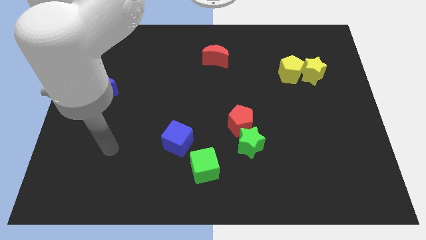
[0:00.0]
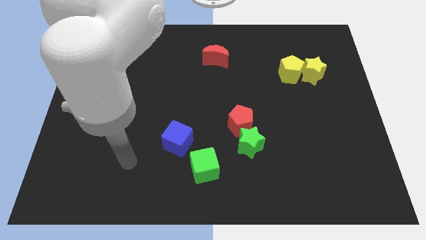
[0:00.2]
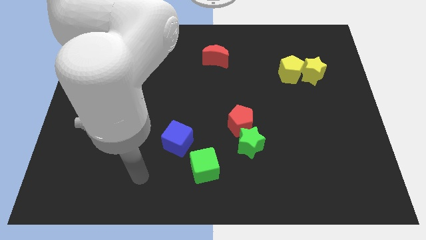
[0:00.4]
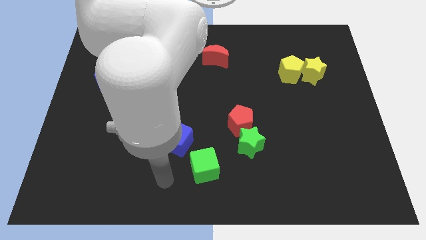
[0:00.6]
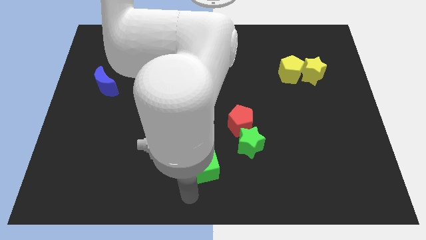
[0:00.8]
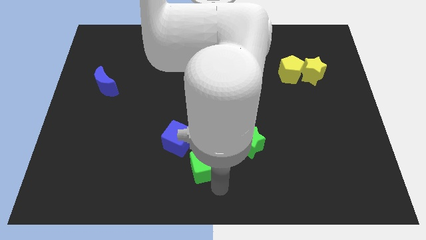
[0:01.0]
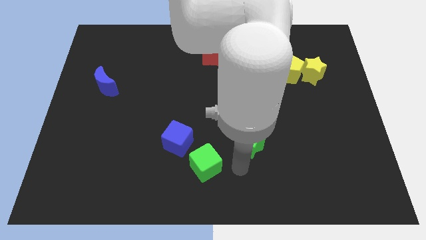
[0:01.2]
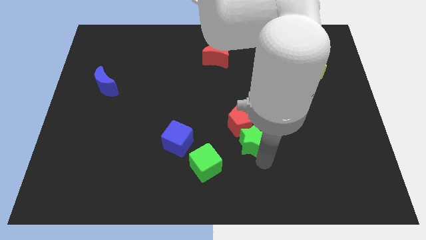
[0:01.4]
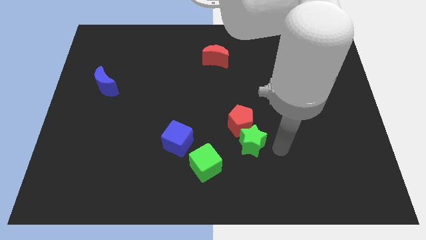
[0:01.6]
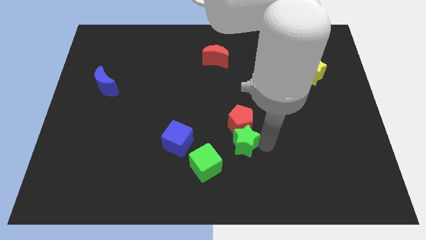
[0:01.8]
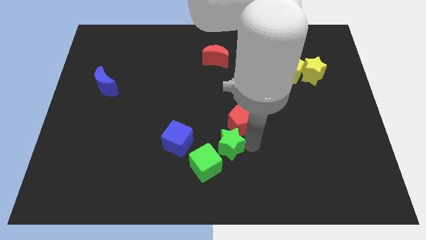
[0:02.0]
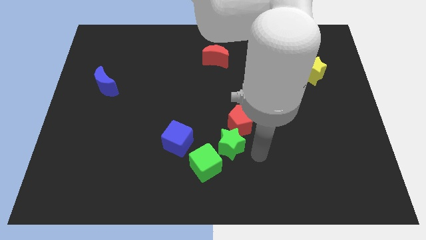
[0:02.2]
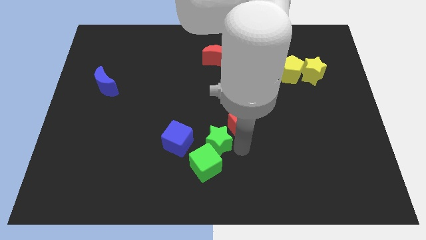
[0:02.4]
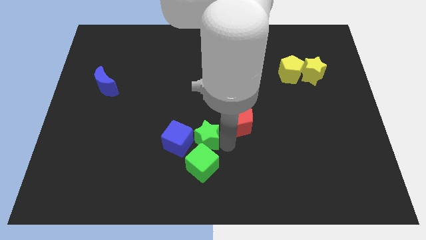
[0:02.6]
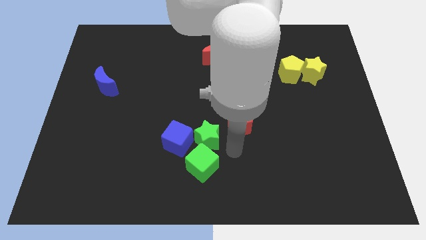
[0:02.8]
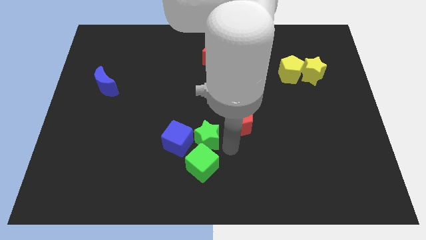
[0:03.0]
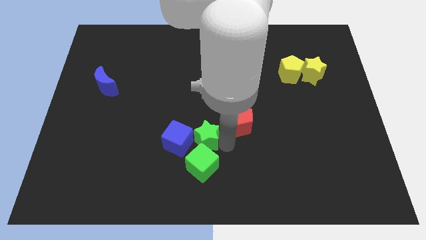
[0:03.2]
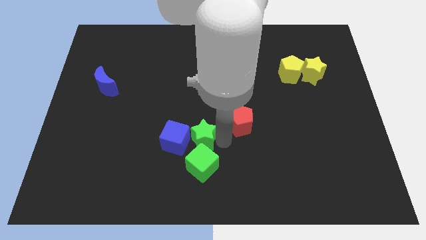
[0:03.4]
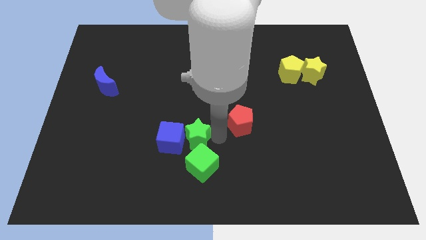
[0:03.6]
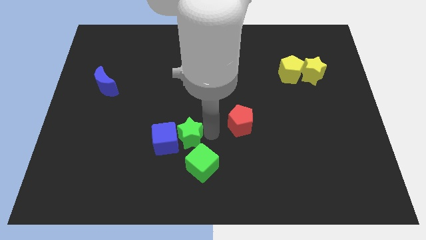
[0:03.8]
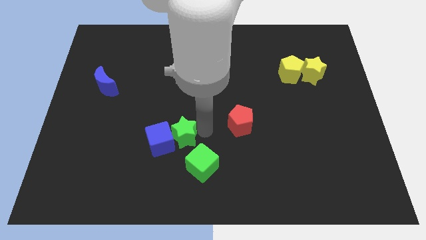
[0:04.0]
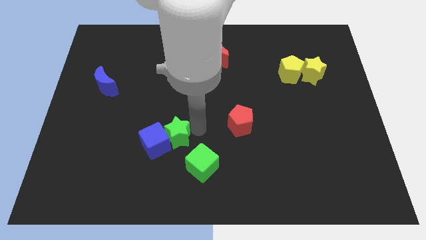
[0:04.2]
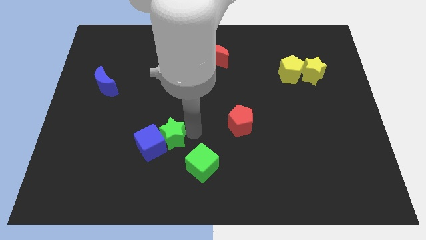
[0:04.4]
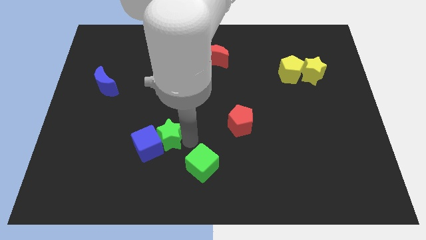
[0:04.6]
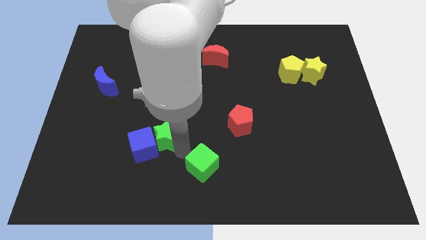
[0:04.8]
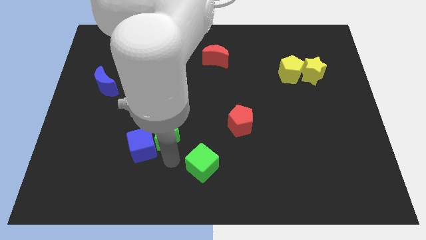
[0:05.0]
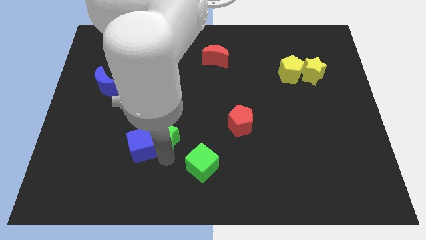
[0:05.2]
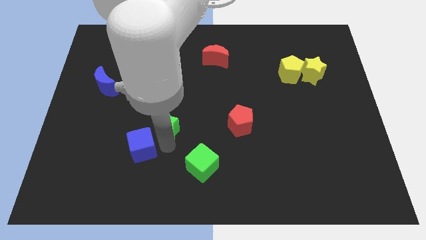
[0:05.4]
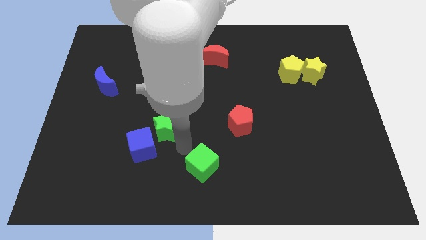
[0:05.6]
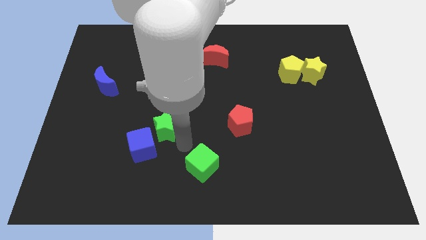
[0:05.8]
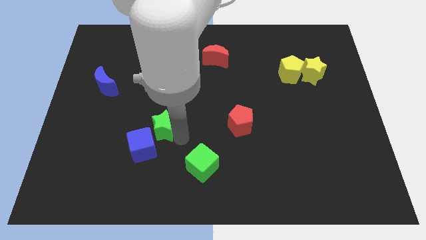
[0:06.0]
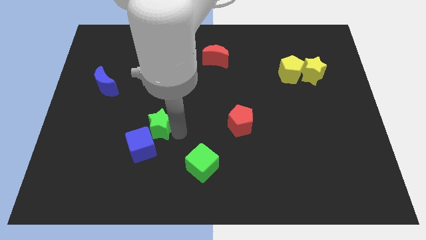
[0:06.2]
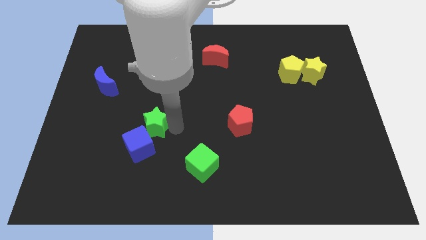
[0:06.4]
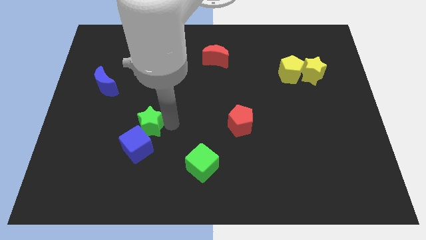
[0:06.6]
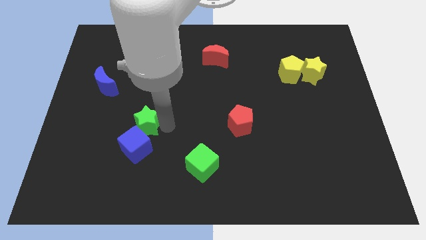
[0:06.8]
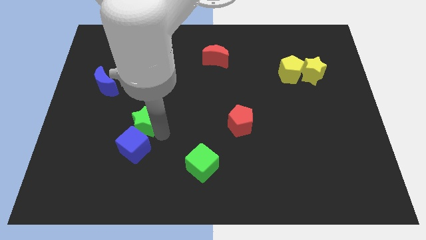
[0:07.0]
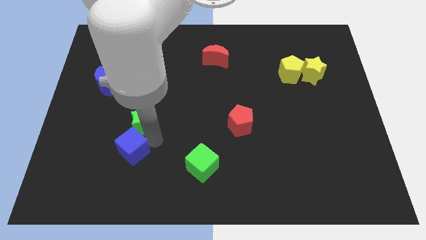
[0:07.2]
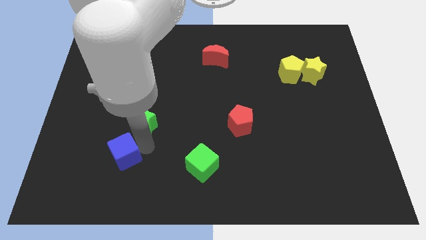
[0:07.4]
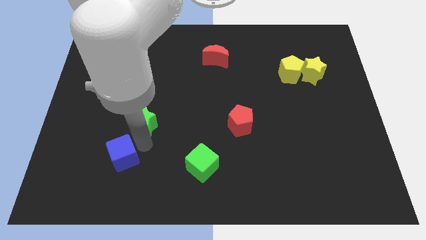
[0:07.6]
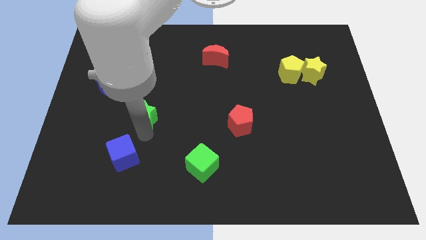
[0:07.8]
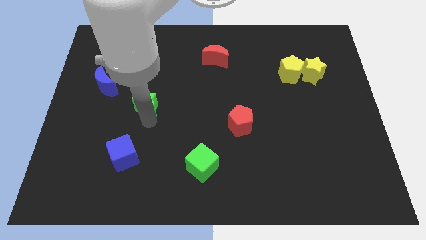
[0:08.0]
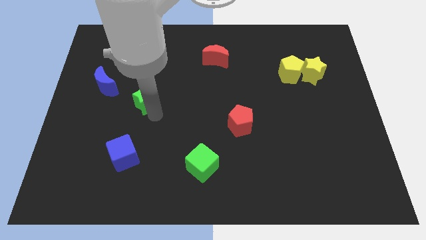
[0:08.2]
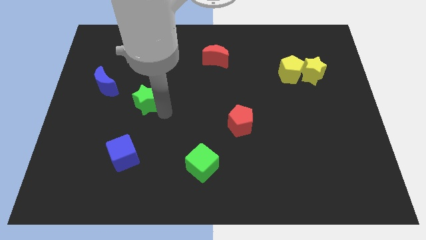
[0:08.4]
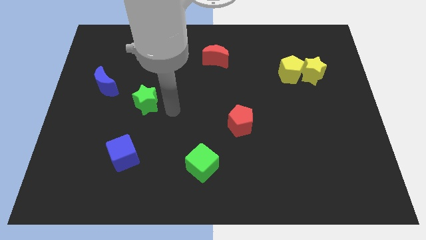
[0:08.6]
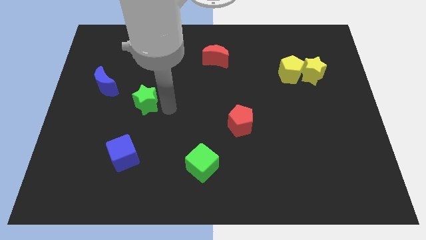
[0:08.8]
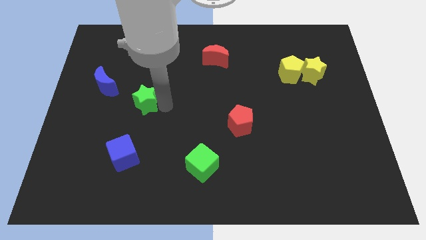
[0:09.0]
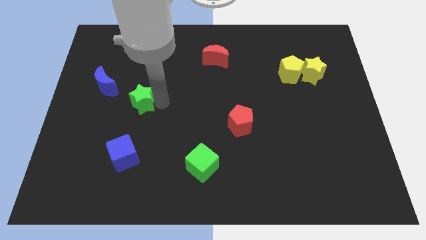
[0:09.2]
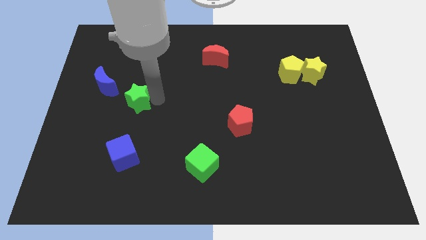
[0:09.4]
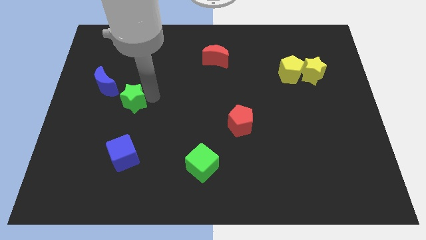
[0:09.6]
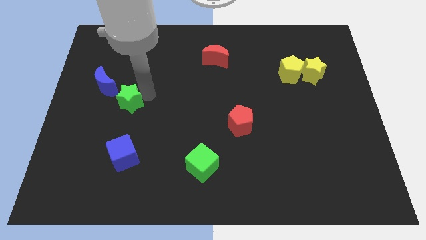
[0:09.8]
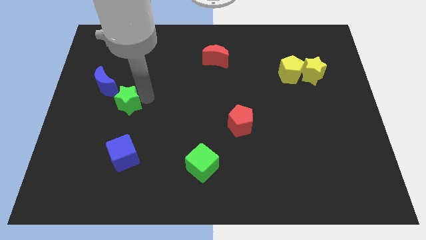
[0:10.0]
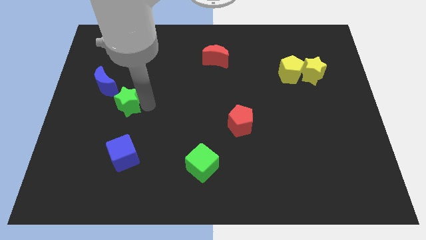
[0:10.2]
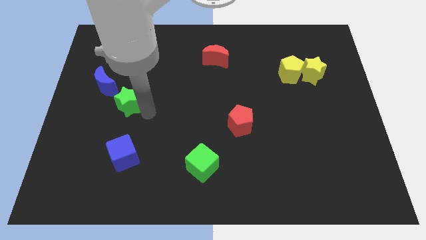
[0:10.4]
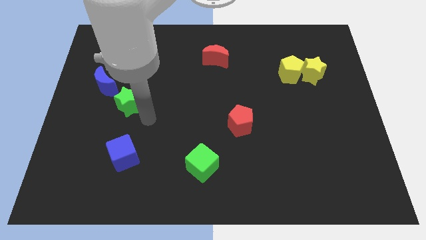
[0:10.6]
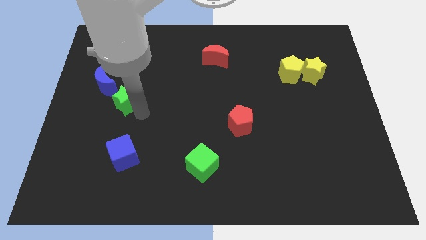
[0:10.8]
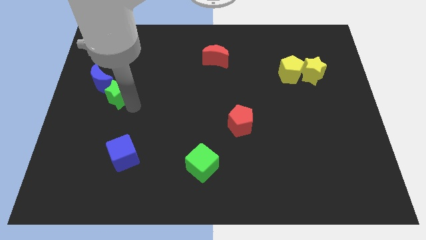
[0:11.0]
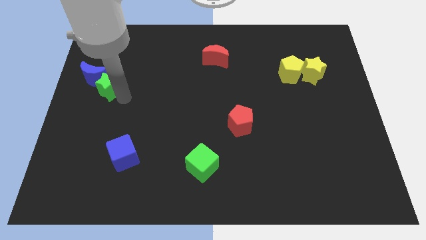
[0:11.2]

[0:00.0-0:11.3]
move the green star towards the blue moon
